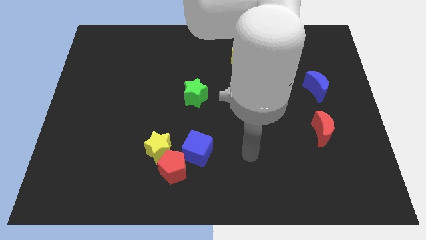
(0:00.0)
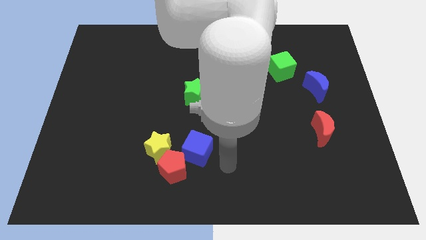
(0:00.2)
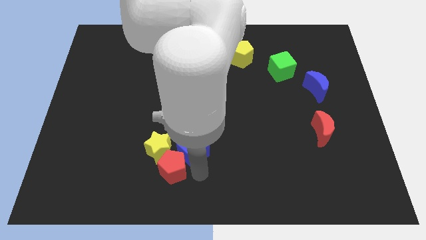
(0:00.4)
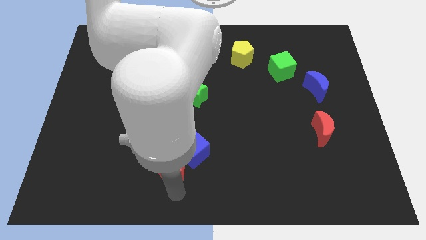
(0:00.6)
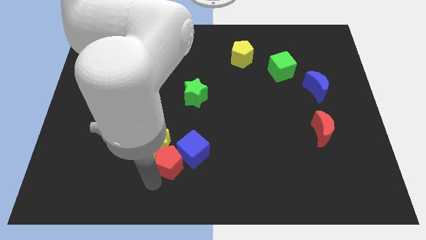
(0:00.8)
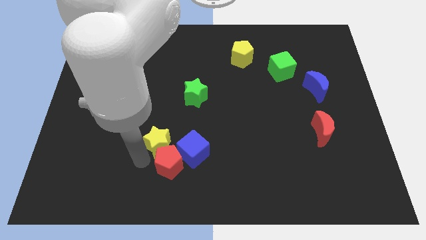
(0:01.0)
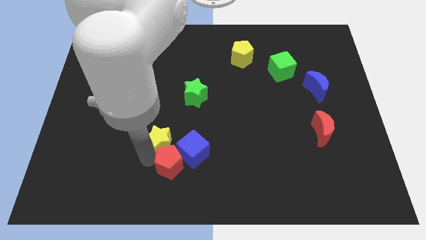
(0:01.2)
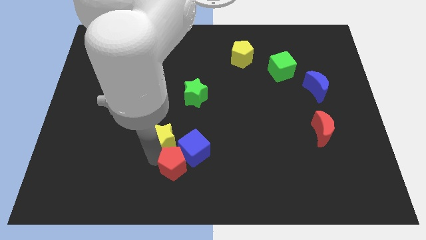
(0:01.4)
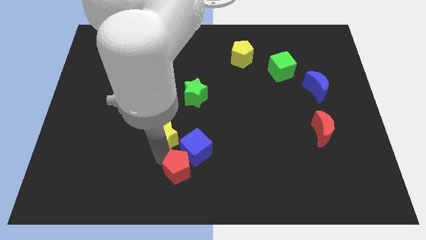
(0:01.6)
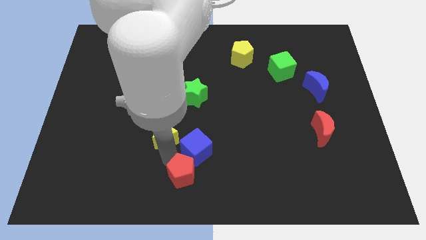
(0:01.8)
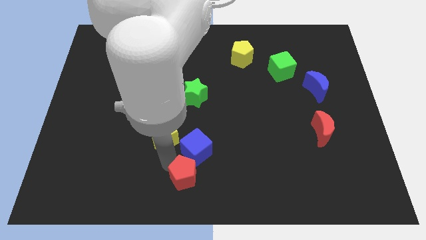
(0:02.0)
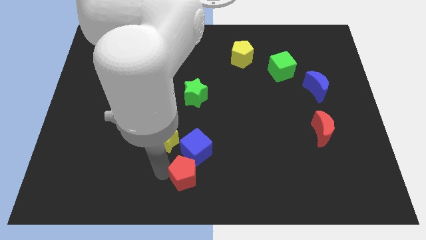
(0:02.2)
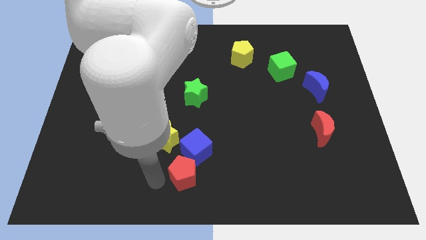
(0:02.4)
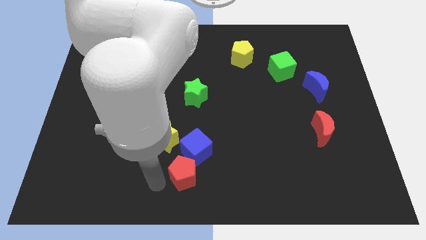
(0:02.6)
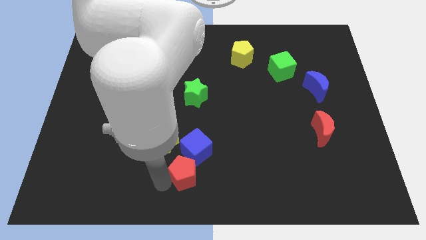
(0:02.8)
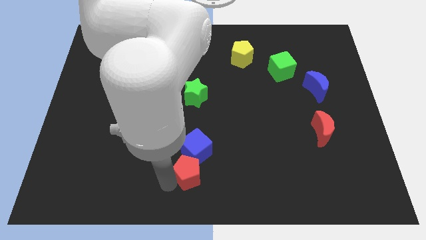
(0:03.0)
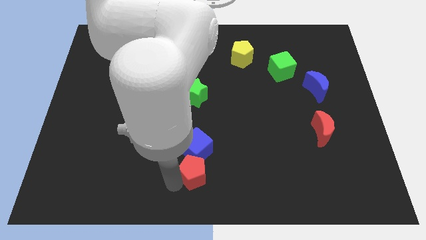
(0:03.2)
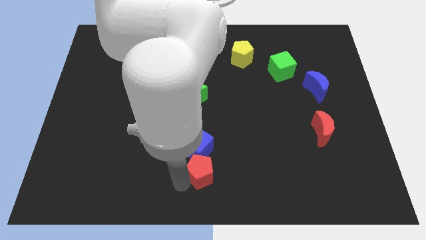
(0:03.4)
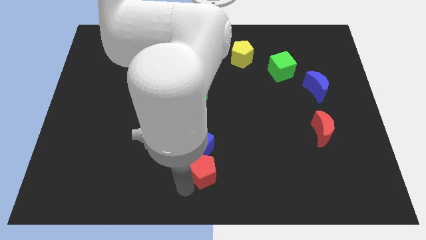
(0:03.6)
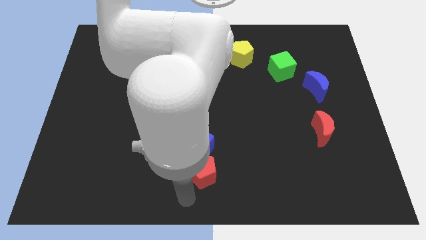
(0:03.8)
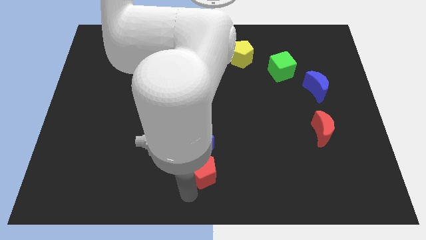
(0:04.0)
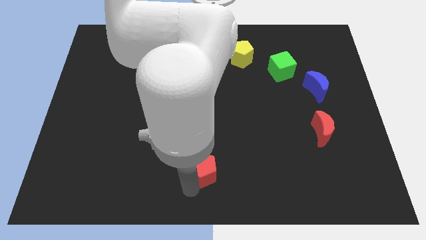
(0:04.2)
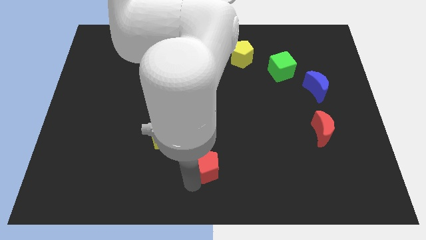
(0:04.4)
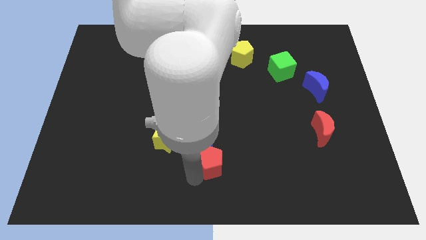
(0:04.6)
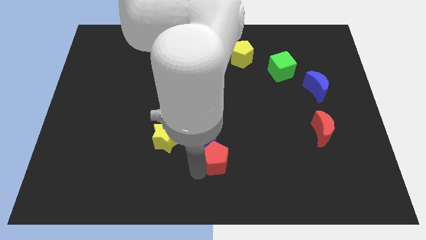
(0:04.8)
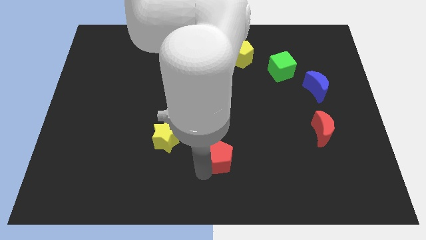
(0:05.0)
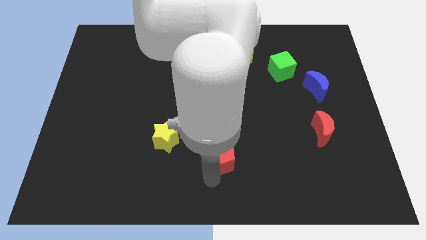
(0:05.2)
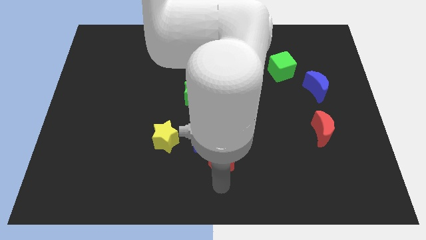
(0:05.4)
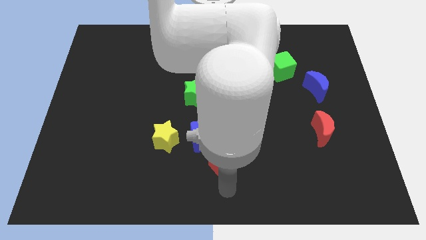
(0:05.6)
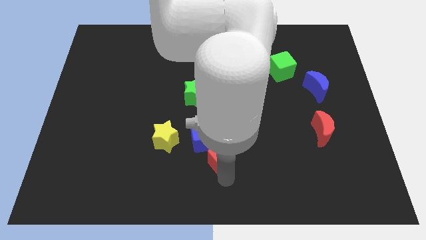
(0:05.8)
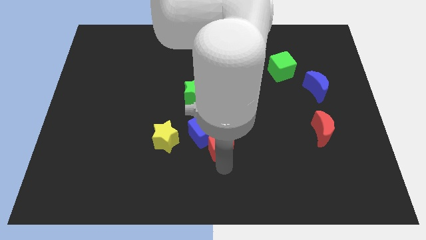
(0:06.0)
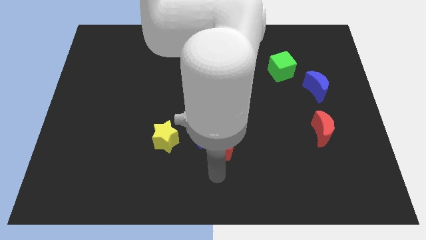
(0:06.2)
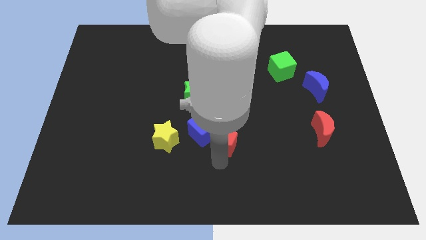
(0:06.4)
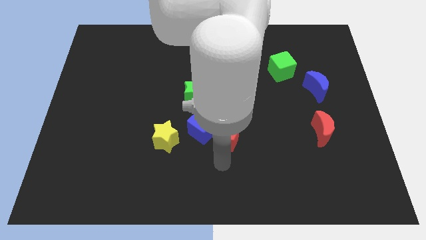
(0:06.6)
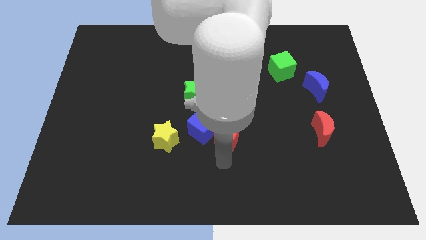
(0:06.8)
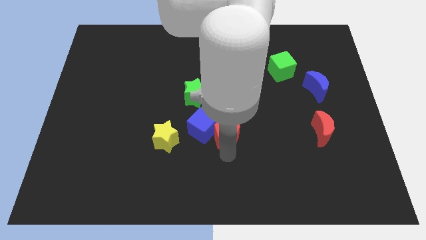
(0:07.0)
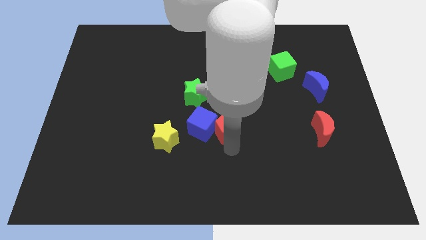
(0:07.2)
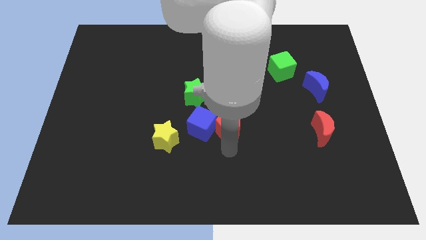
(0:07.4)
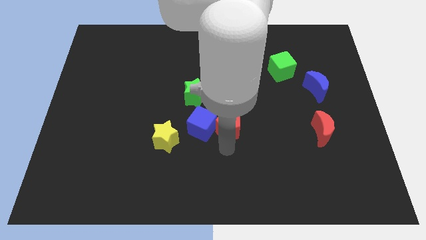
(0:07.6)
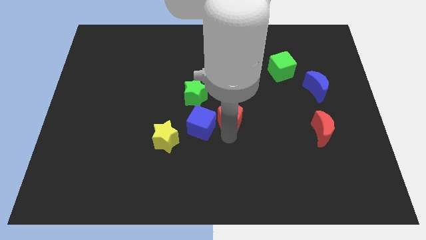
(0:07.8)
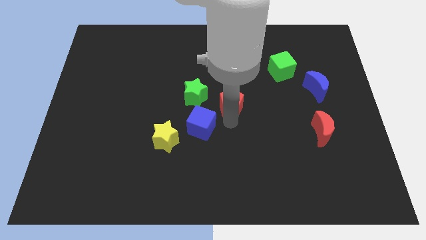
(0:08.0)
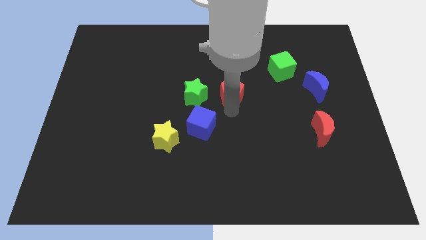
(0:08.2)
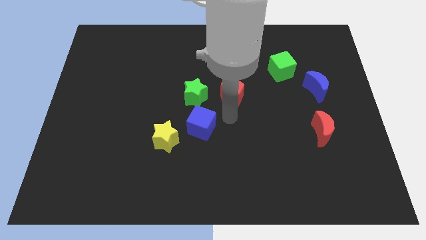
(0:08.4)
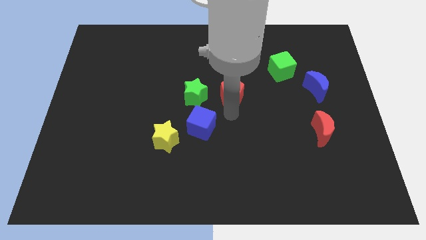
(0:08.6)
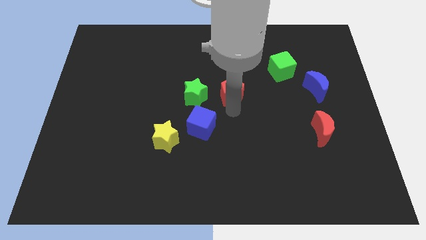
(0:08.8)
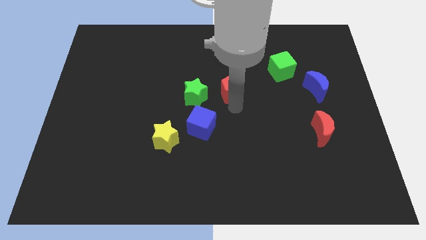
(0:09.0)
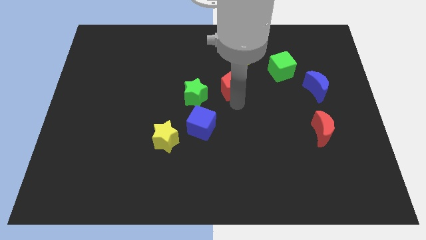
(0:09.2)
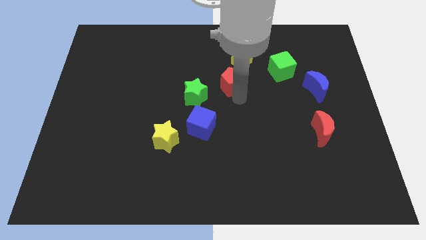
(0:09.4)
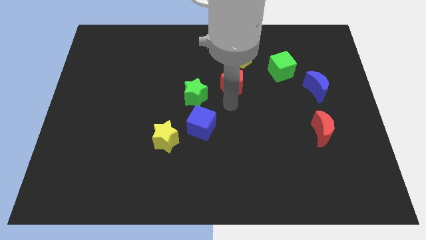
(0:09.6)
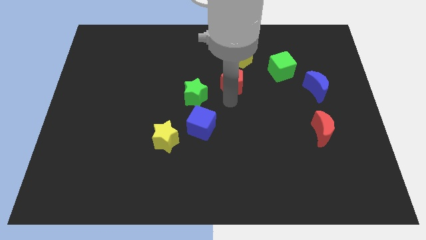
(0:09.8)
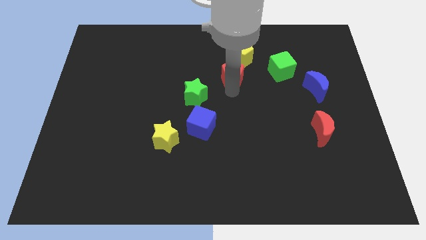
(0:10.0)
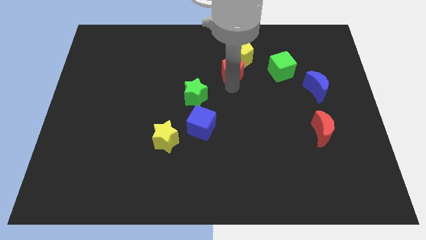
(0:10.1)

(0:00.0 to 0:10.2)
push the red pentagon towards the yellow pentagon

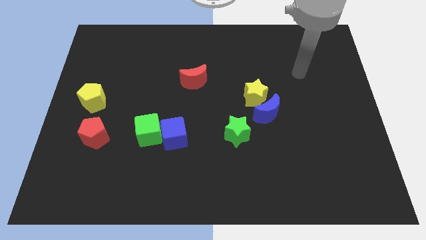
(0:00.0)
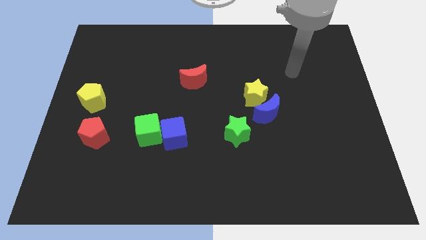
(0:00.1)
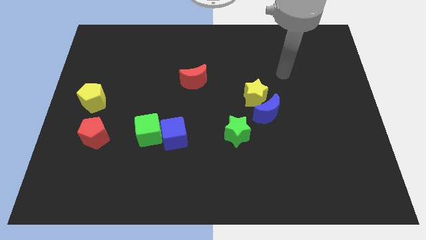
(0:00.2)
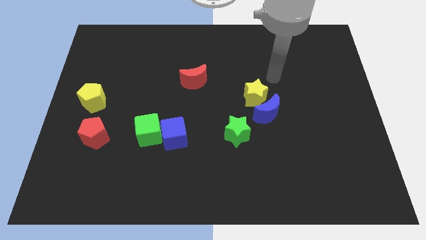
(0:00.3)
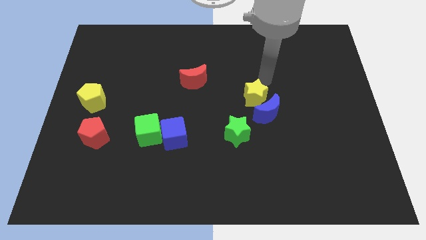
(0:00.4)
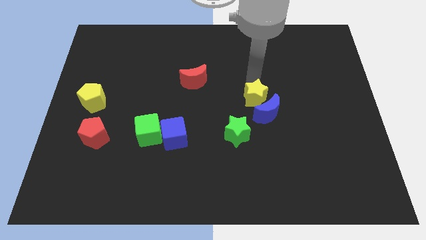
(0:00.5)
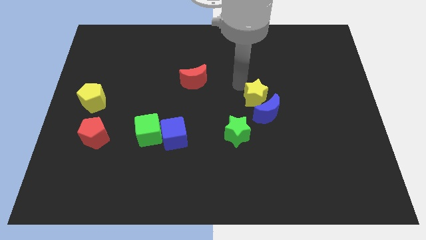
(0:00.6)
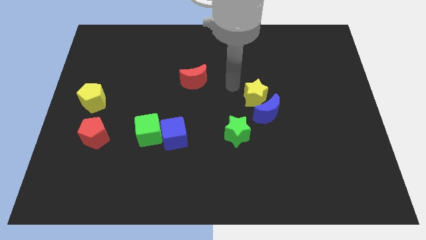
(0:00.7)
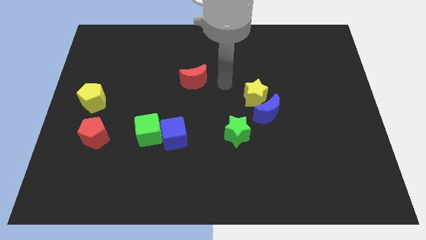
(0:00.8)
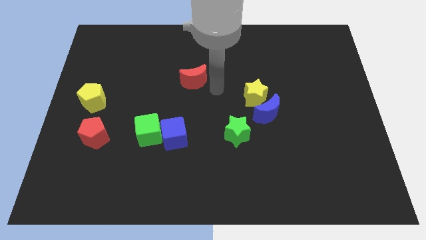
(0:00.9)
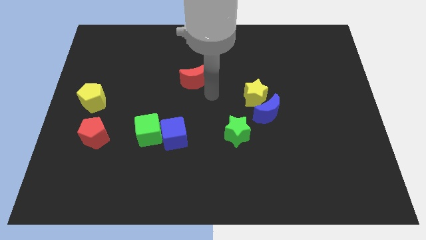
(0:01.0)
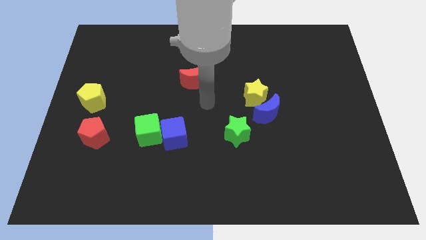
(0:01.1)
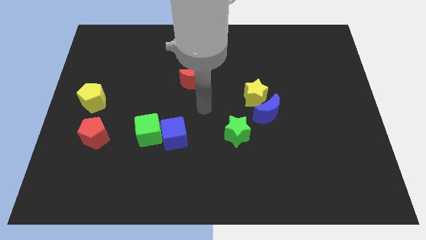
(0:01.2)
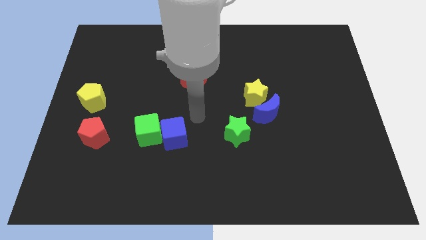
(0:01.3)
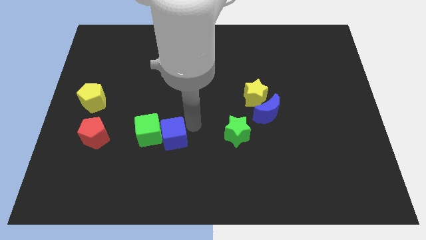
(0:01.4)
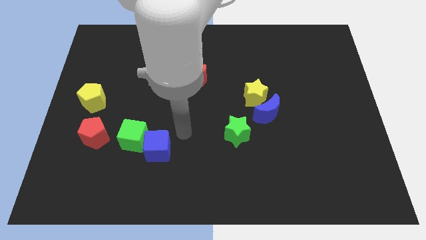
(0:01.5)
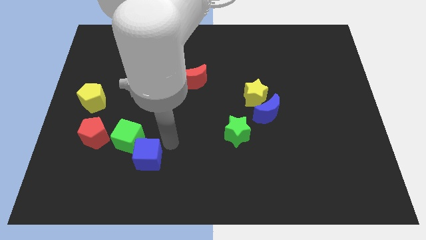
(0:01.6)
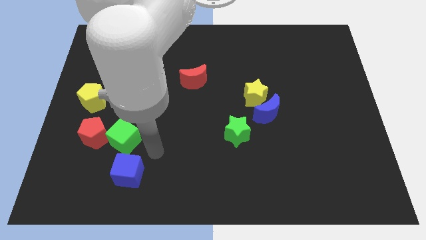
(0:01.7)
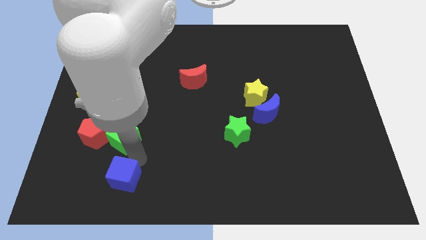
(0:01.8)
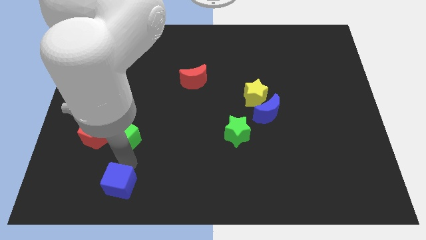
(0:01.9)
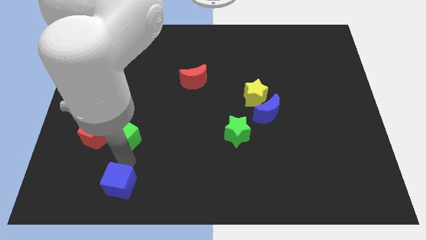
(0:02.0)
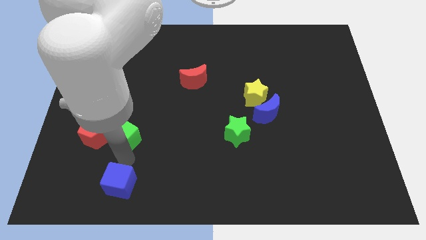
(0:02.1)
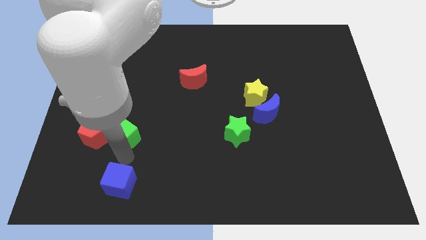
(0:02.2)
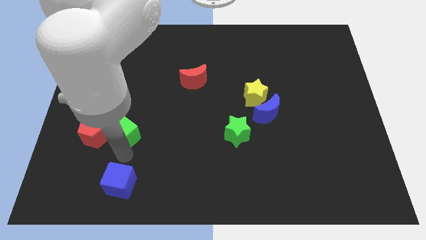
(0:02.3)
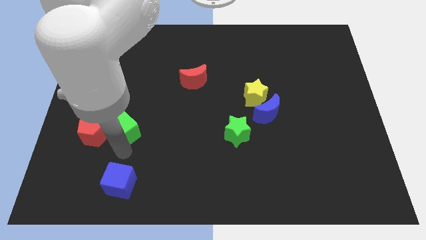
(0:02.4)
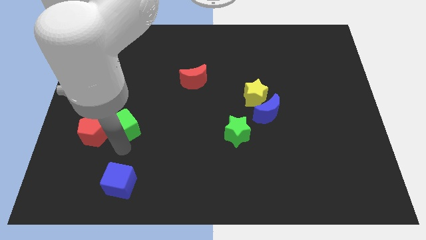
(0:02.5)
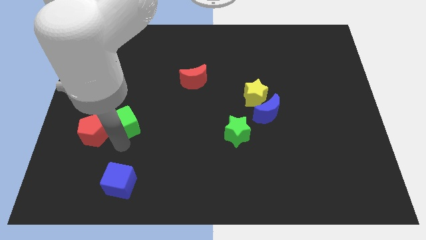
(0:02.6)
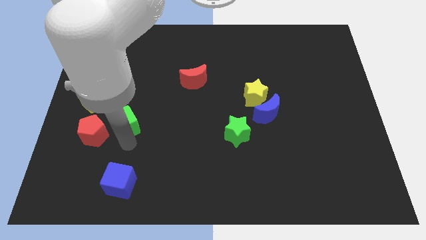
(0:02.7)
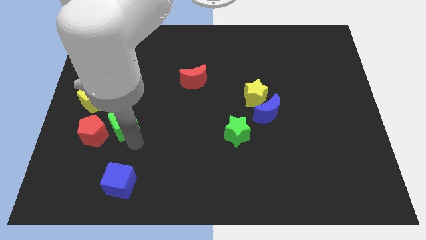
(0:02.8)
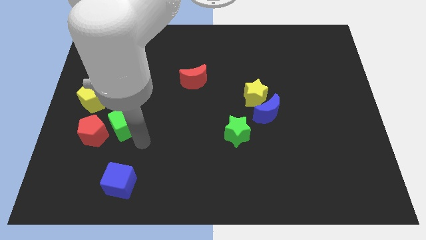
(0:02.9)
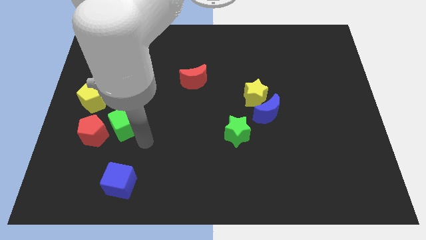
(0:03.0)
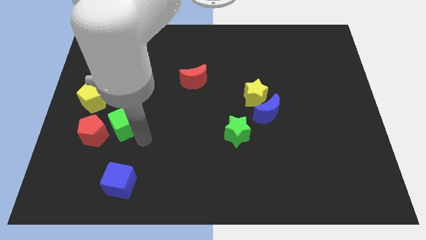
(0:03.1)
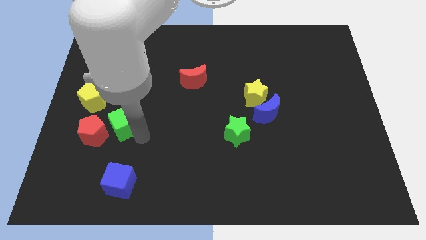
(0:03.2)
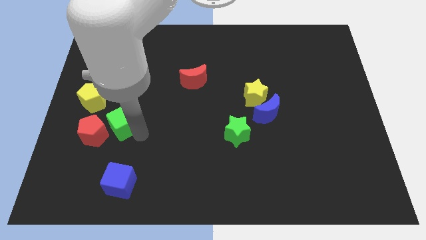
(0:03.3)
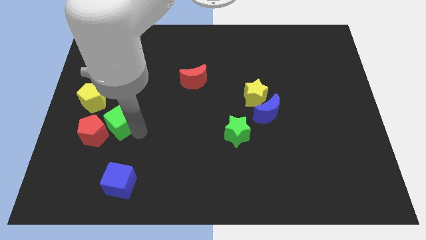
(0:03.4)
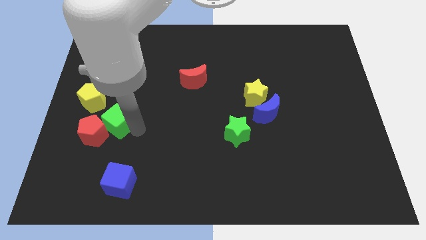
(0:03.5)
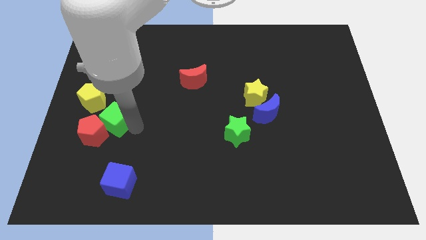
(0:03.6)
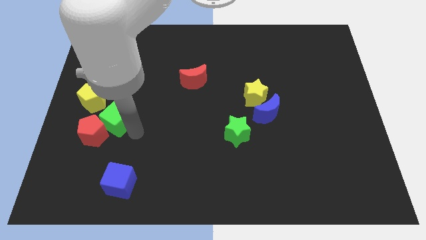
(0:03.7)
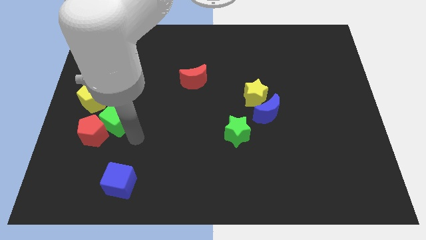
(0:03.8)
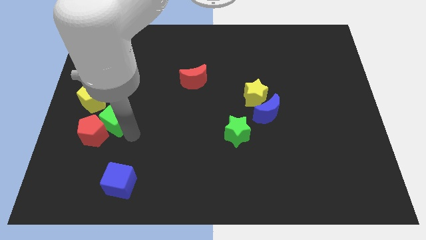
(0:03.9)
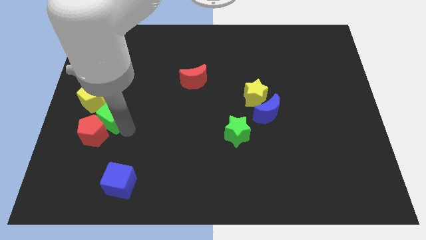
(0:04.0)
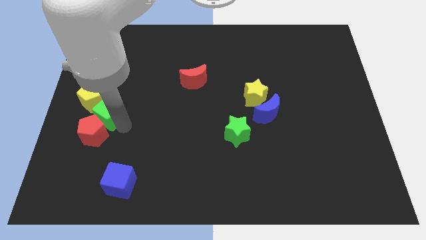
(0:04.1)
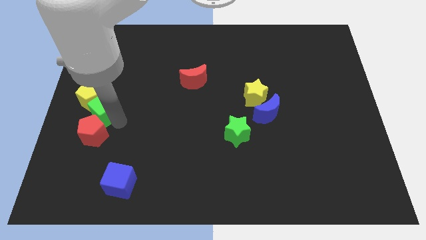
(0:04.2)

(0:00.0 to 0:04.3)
push the green cube close to the yellow pentagon
